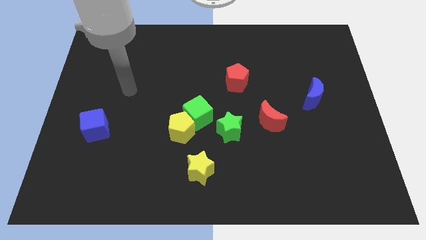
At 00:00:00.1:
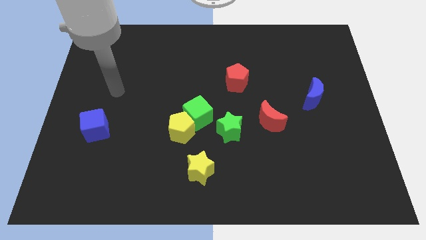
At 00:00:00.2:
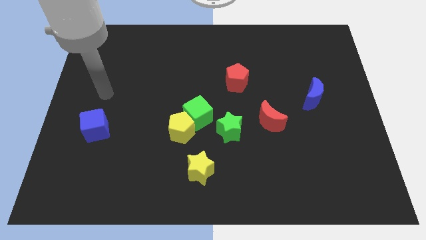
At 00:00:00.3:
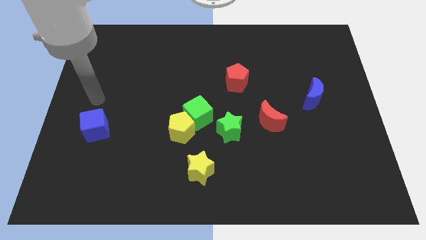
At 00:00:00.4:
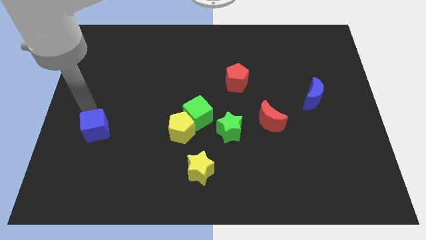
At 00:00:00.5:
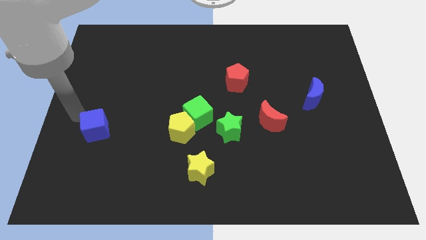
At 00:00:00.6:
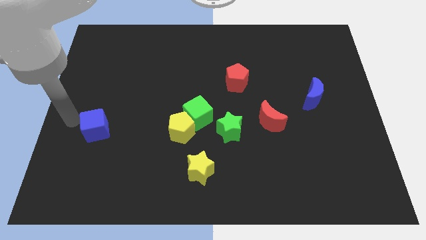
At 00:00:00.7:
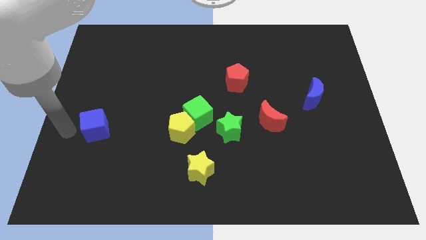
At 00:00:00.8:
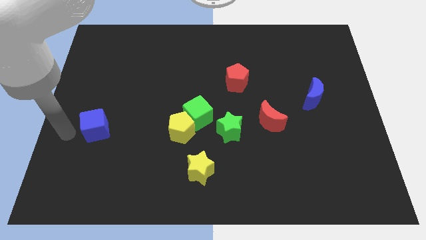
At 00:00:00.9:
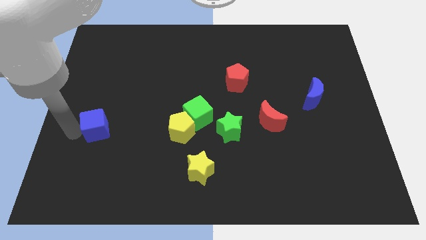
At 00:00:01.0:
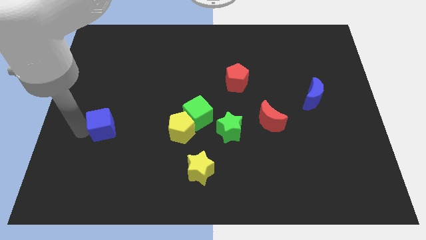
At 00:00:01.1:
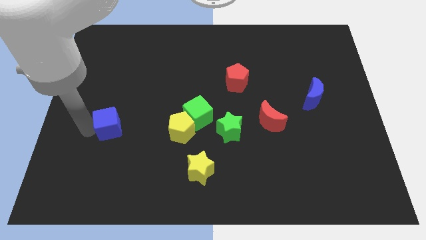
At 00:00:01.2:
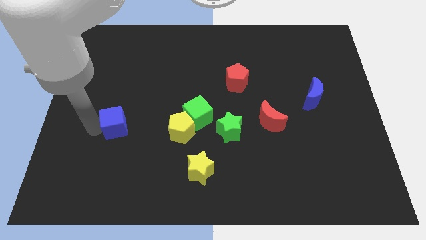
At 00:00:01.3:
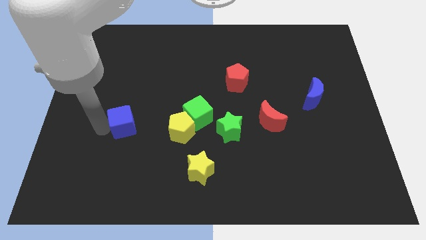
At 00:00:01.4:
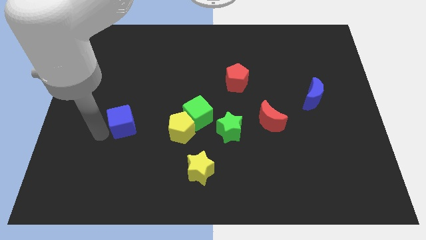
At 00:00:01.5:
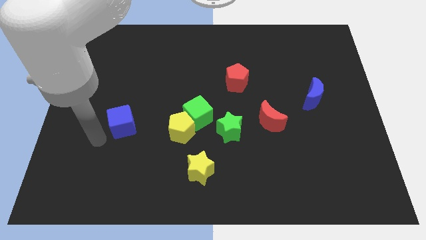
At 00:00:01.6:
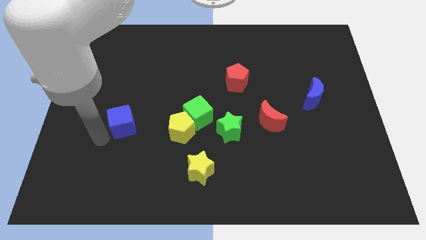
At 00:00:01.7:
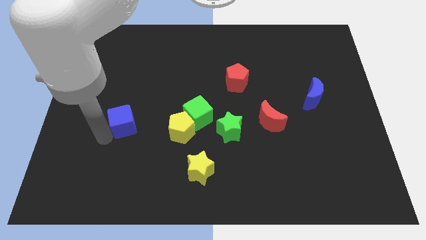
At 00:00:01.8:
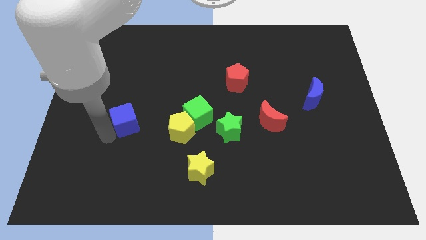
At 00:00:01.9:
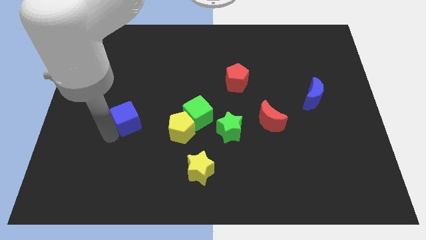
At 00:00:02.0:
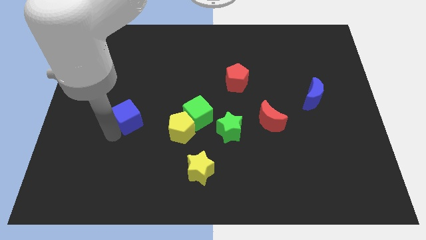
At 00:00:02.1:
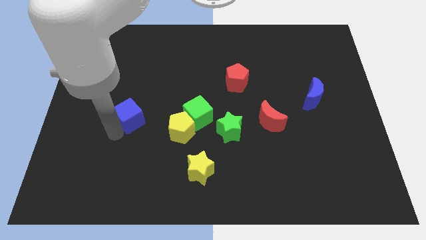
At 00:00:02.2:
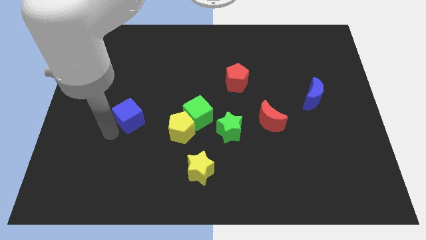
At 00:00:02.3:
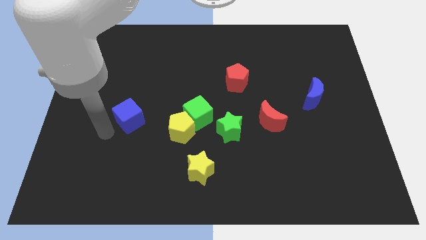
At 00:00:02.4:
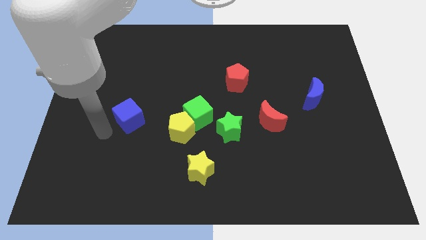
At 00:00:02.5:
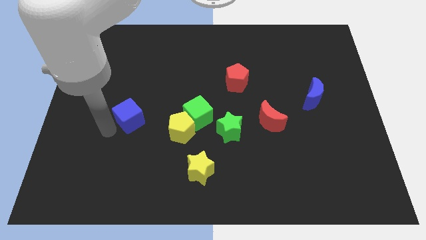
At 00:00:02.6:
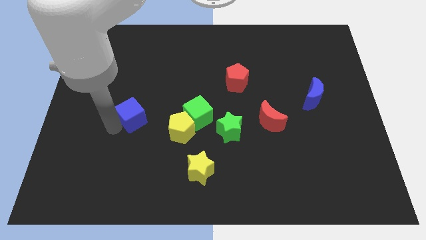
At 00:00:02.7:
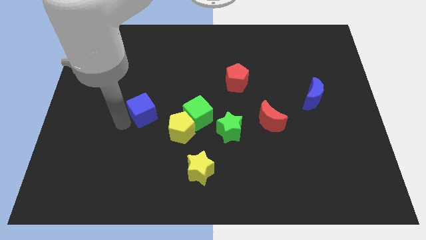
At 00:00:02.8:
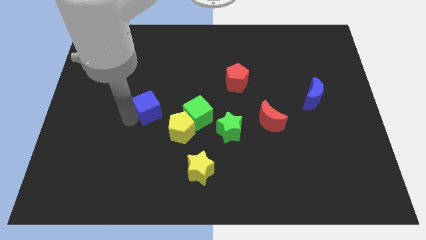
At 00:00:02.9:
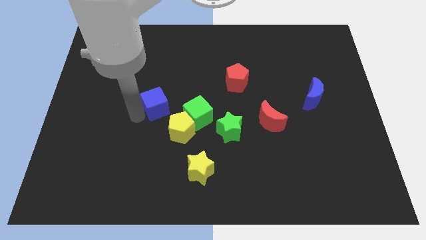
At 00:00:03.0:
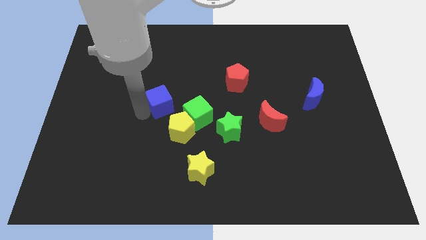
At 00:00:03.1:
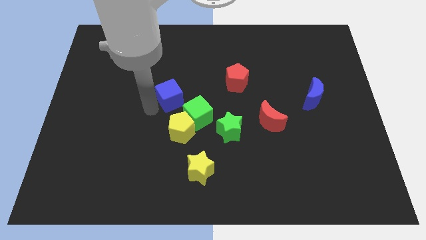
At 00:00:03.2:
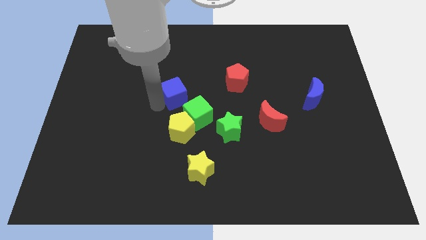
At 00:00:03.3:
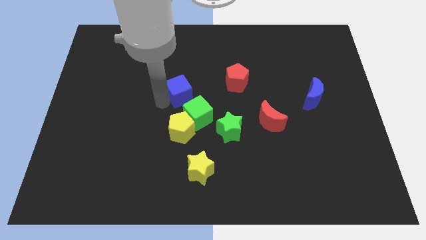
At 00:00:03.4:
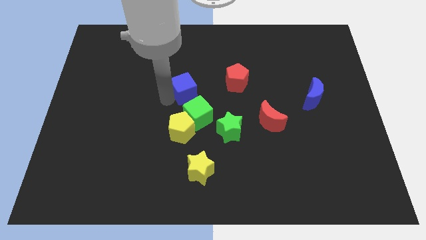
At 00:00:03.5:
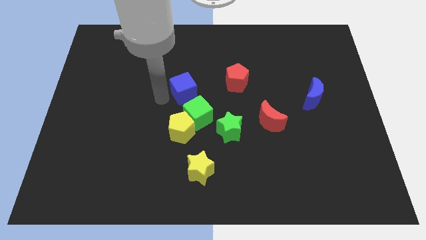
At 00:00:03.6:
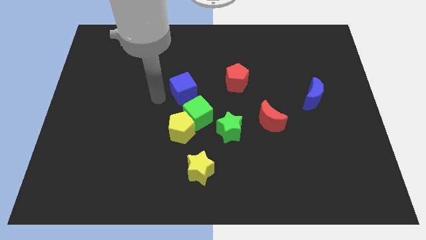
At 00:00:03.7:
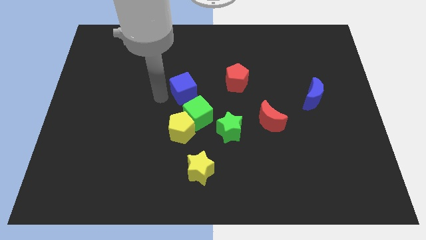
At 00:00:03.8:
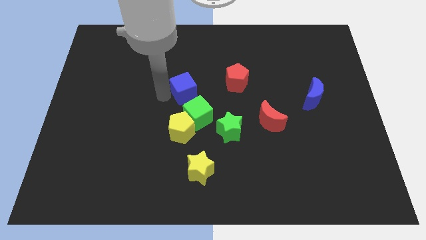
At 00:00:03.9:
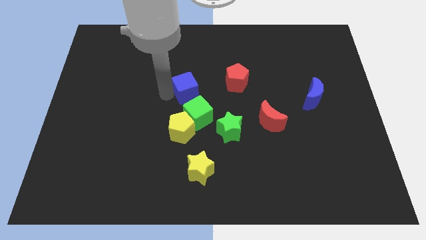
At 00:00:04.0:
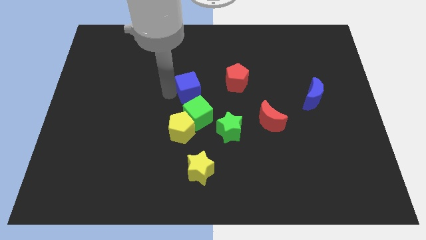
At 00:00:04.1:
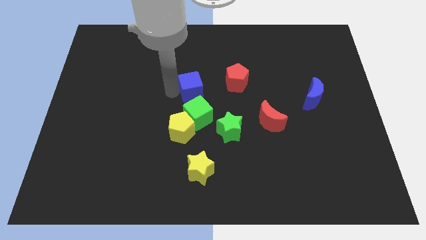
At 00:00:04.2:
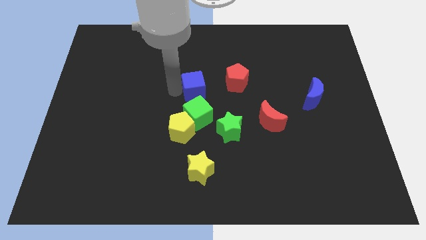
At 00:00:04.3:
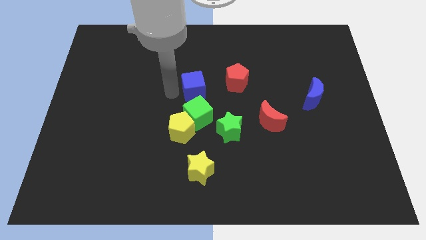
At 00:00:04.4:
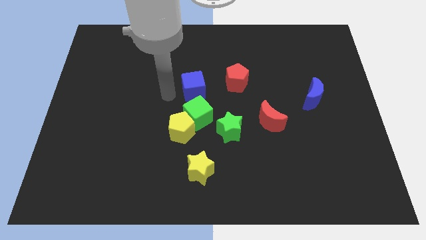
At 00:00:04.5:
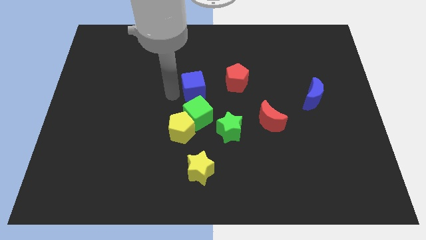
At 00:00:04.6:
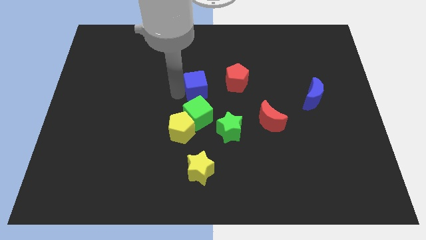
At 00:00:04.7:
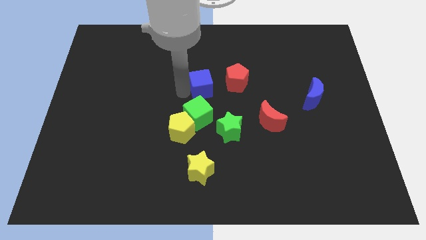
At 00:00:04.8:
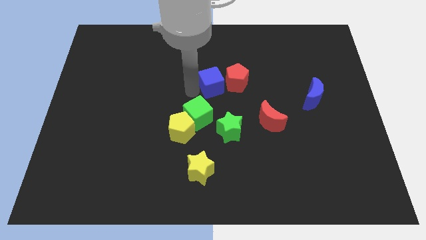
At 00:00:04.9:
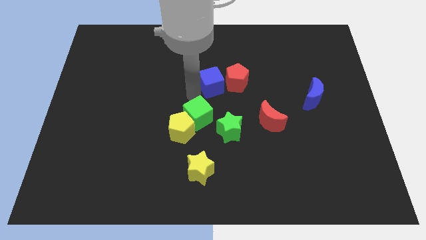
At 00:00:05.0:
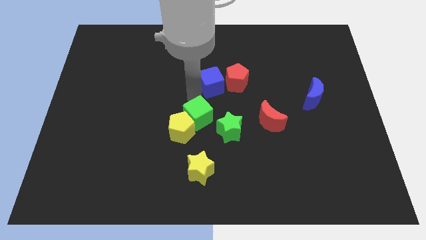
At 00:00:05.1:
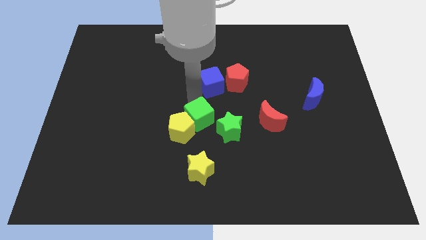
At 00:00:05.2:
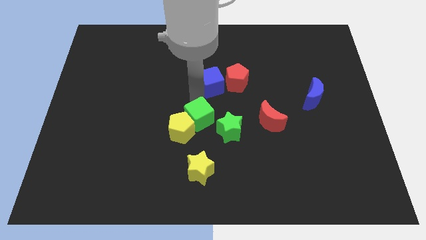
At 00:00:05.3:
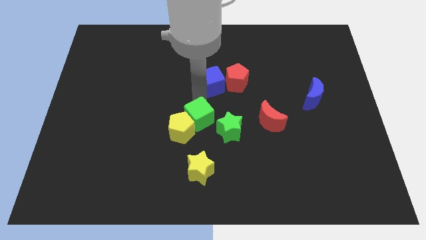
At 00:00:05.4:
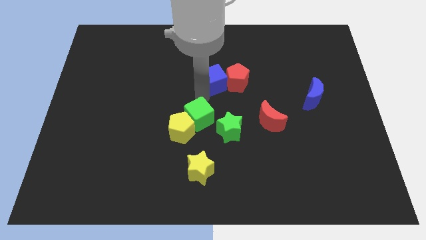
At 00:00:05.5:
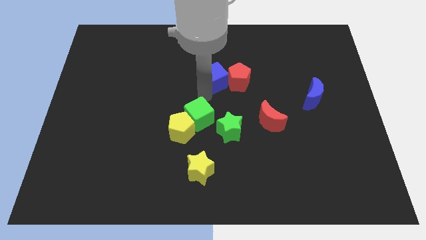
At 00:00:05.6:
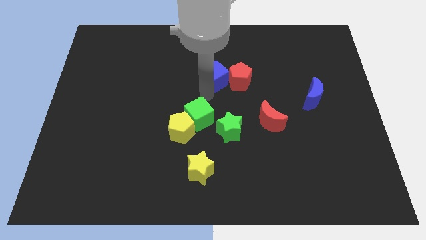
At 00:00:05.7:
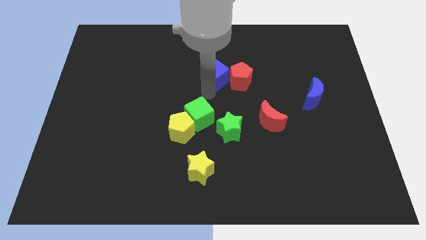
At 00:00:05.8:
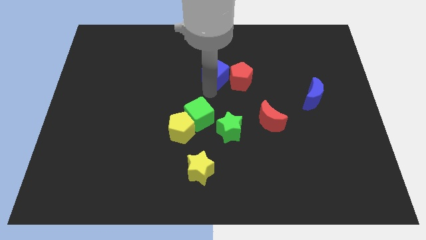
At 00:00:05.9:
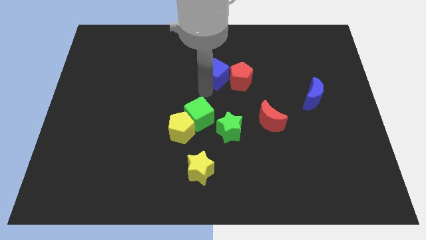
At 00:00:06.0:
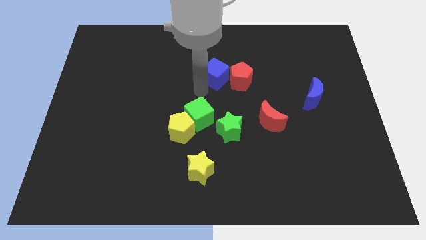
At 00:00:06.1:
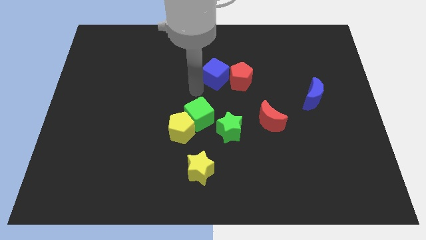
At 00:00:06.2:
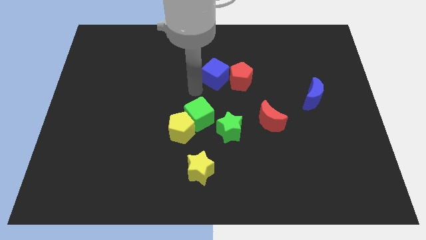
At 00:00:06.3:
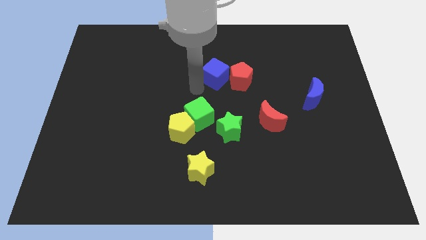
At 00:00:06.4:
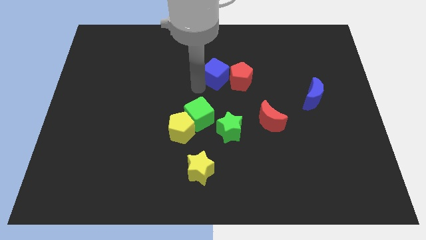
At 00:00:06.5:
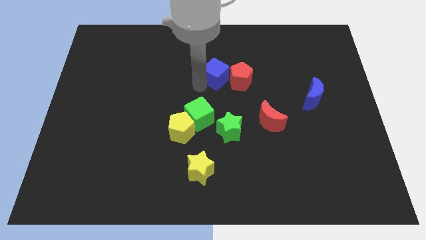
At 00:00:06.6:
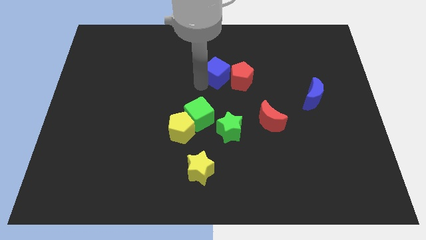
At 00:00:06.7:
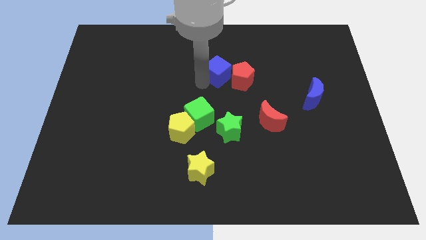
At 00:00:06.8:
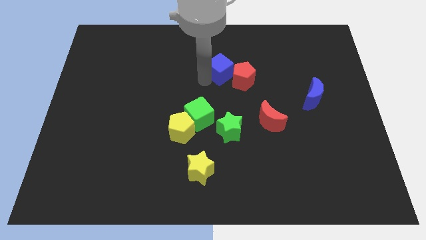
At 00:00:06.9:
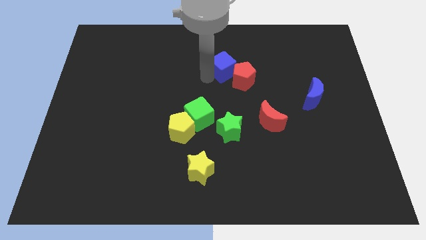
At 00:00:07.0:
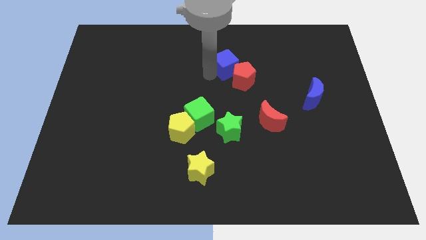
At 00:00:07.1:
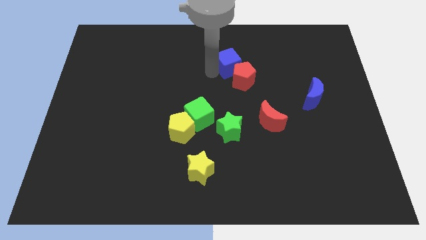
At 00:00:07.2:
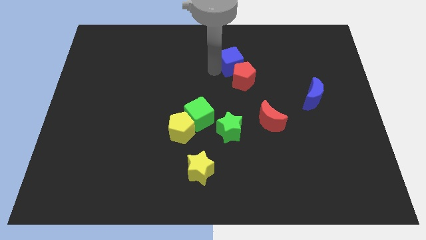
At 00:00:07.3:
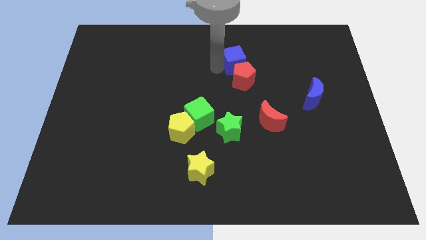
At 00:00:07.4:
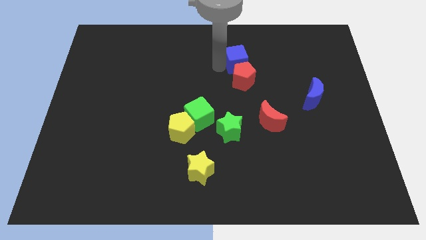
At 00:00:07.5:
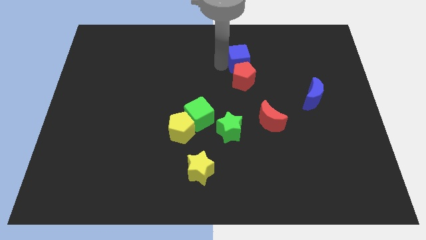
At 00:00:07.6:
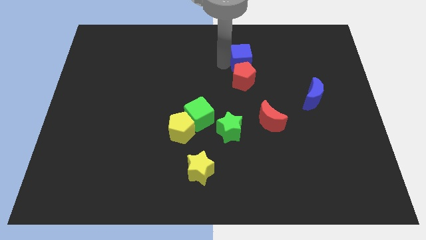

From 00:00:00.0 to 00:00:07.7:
slide the blue cube to the top right side of the red pentagon
